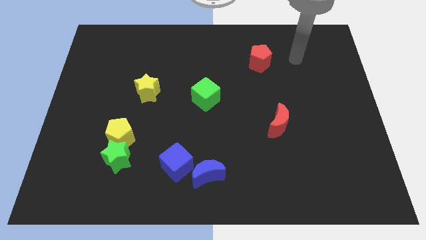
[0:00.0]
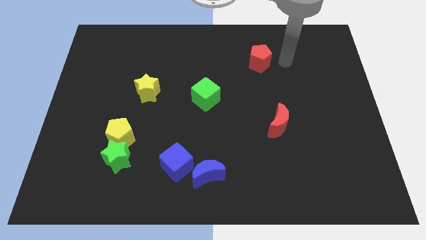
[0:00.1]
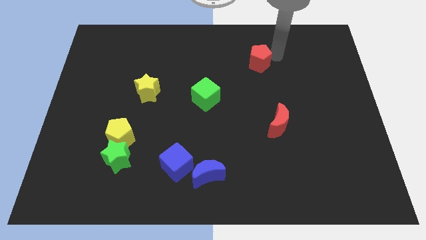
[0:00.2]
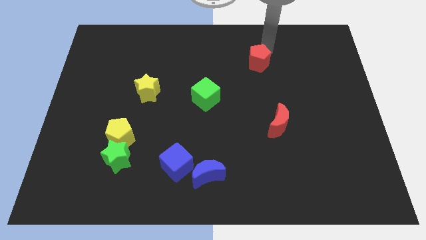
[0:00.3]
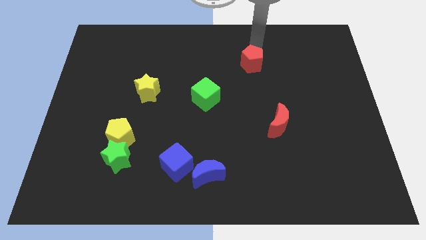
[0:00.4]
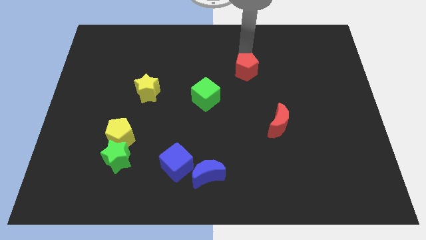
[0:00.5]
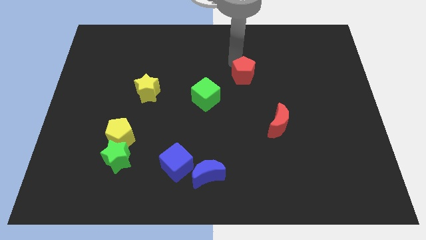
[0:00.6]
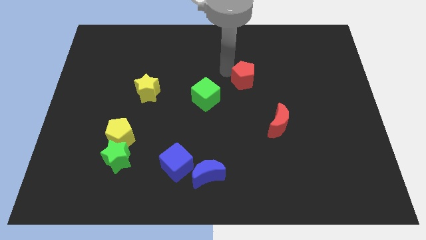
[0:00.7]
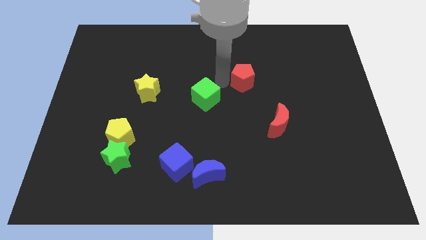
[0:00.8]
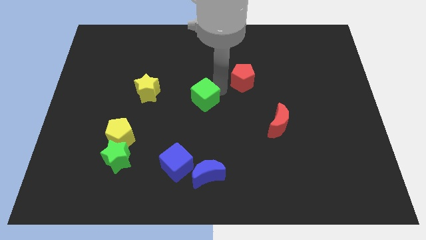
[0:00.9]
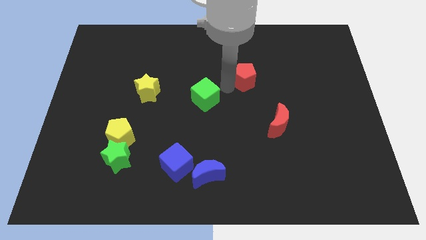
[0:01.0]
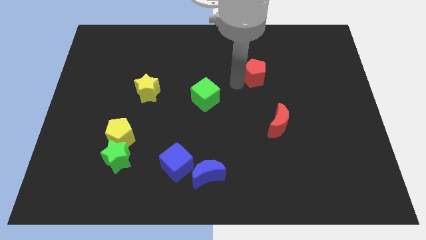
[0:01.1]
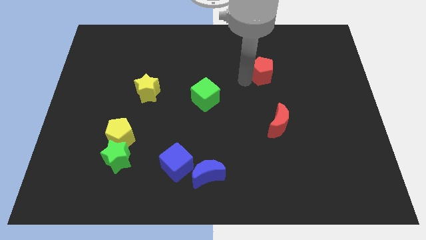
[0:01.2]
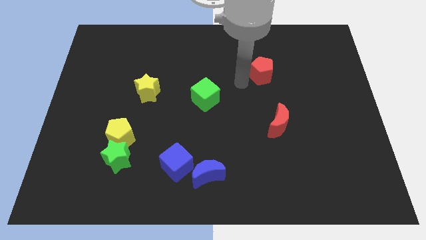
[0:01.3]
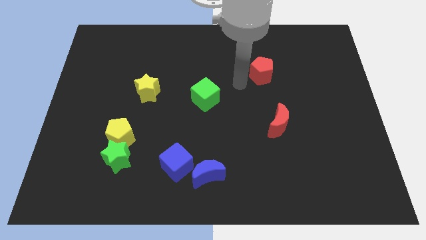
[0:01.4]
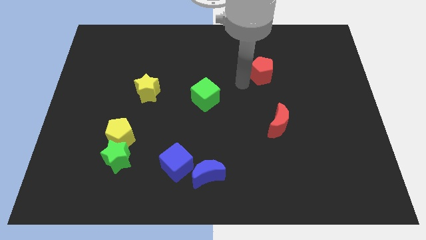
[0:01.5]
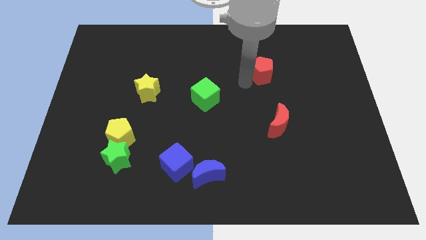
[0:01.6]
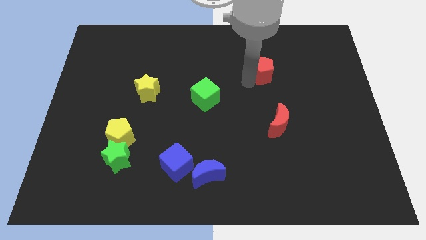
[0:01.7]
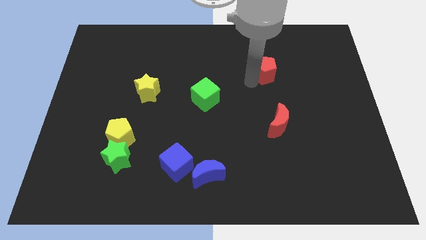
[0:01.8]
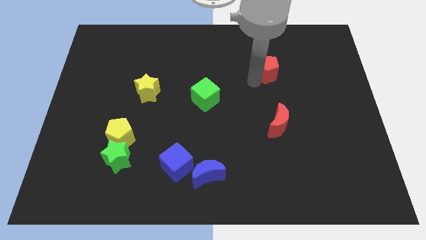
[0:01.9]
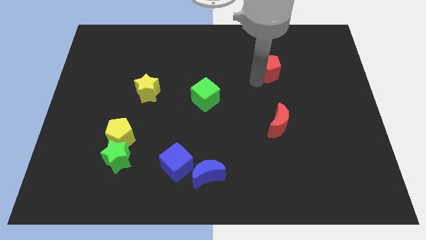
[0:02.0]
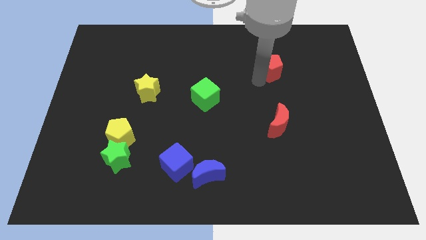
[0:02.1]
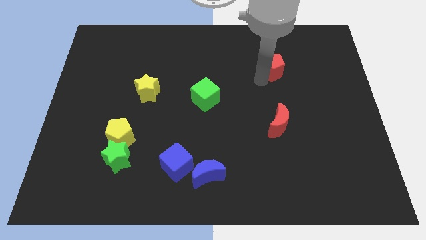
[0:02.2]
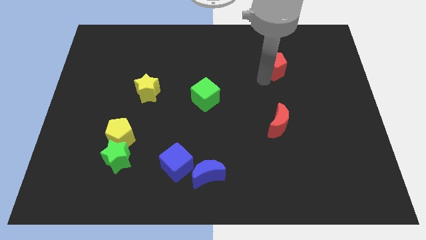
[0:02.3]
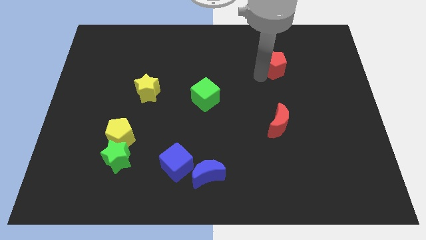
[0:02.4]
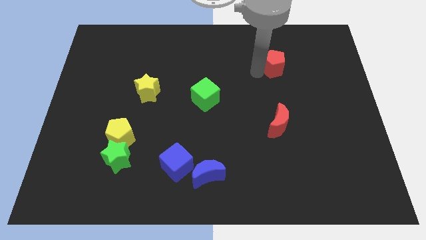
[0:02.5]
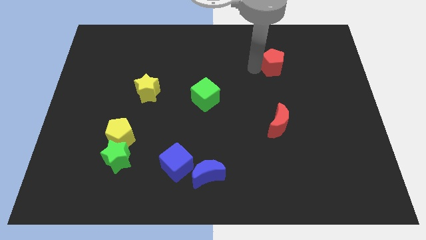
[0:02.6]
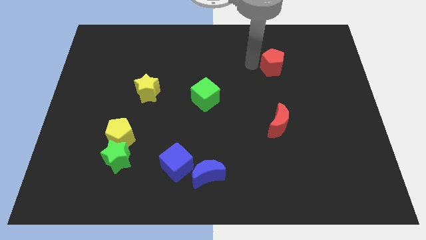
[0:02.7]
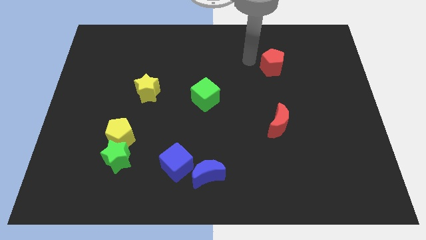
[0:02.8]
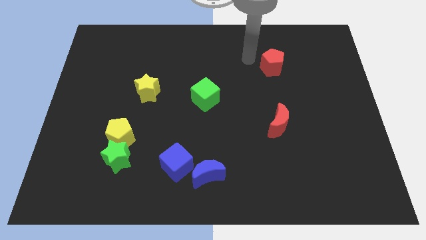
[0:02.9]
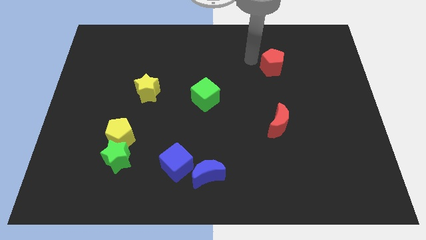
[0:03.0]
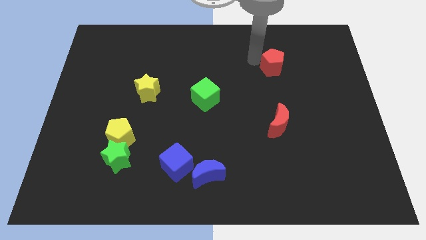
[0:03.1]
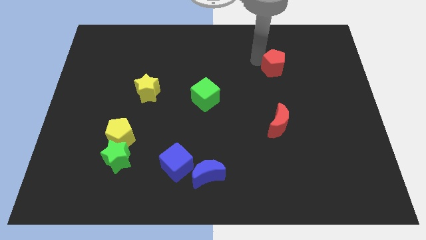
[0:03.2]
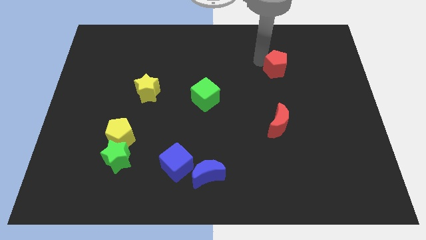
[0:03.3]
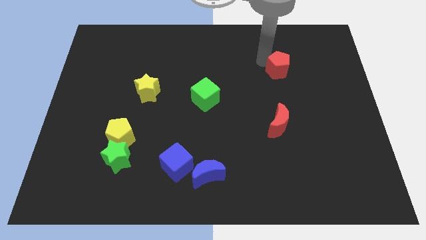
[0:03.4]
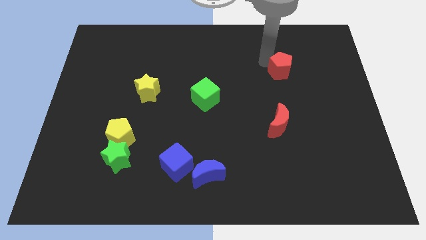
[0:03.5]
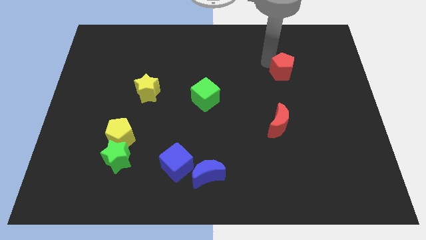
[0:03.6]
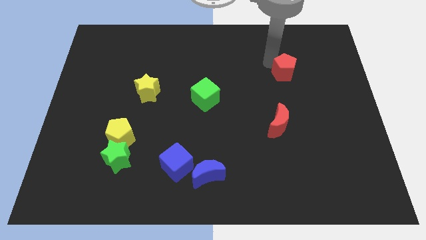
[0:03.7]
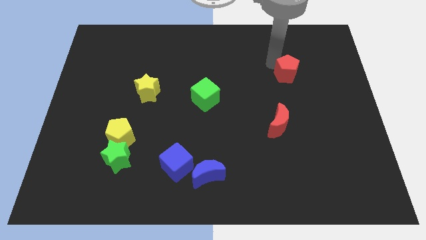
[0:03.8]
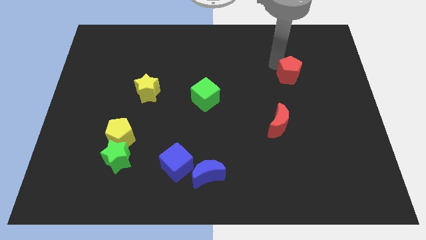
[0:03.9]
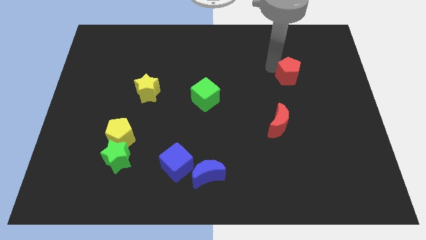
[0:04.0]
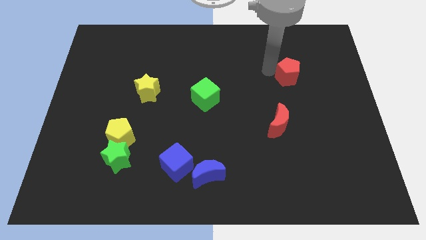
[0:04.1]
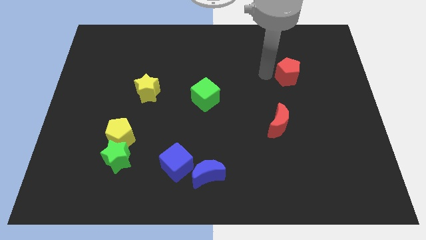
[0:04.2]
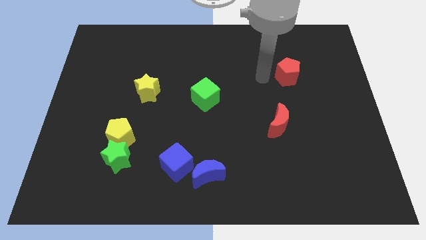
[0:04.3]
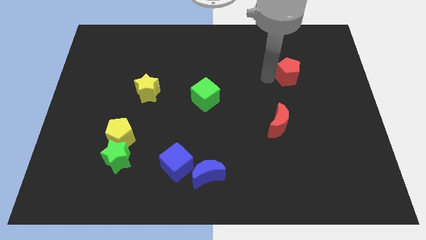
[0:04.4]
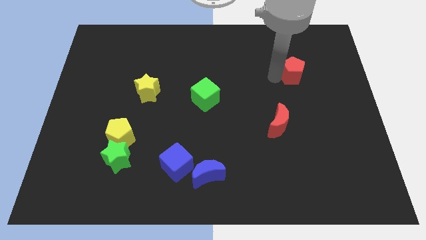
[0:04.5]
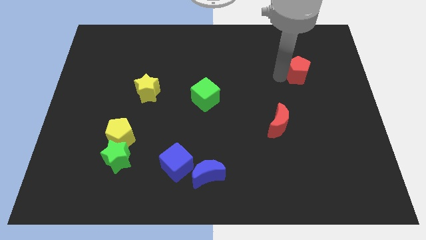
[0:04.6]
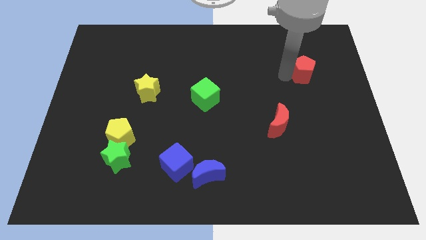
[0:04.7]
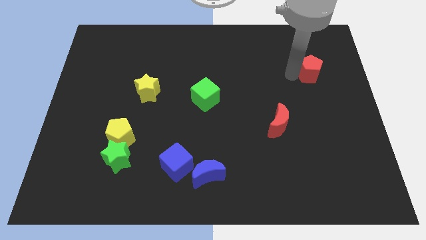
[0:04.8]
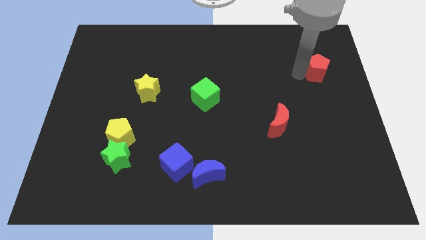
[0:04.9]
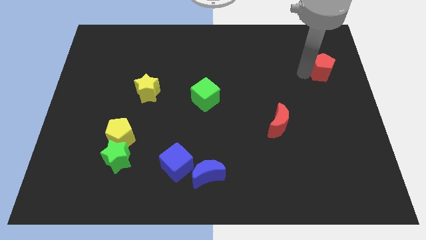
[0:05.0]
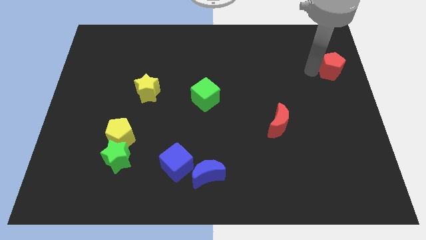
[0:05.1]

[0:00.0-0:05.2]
push the red pentagon to the right side of the board

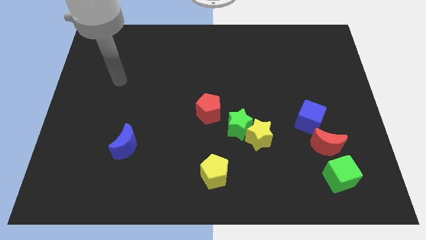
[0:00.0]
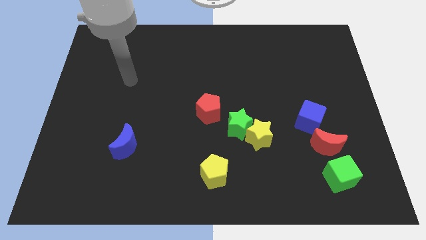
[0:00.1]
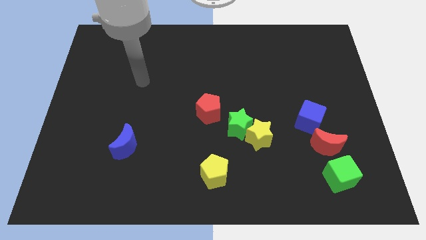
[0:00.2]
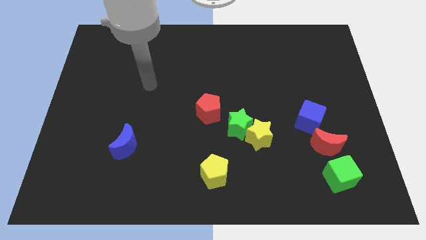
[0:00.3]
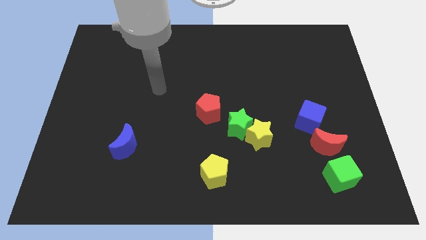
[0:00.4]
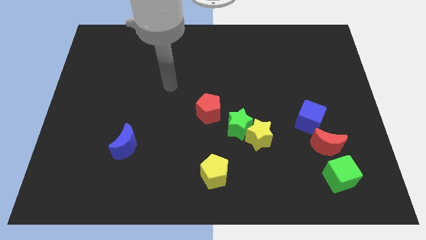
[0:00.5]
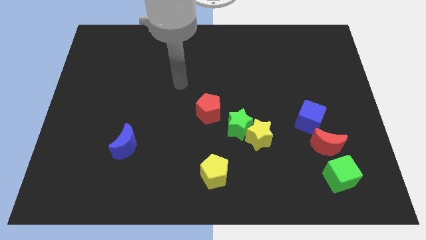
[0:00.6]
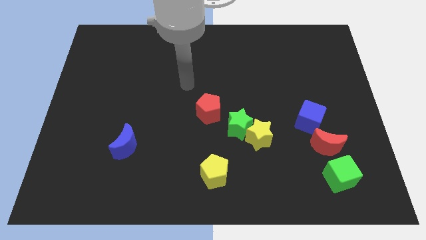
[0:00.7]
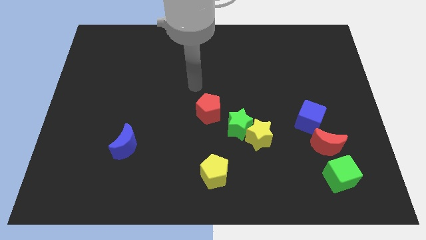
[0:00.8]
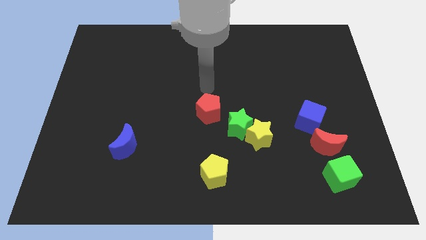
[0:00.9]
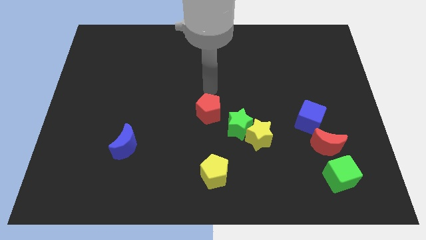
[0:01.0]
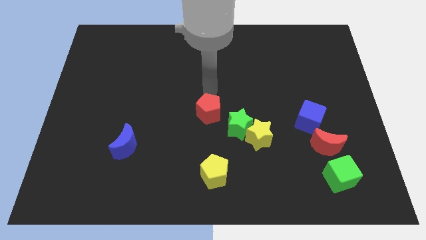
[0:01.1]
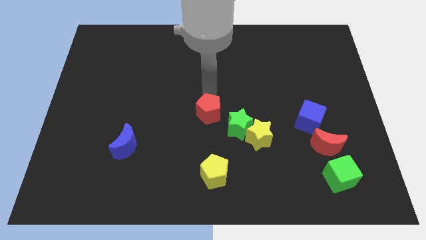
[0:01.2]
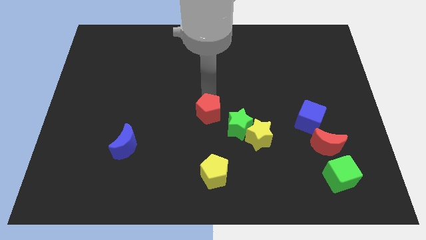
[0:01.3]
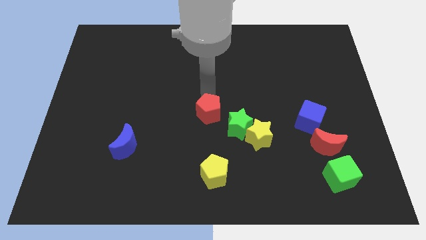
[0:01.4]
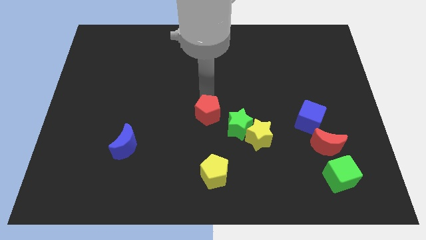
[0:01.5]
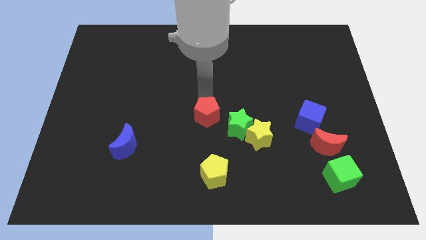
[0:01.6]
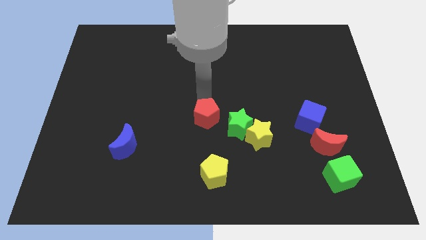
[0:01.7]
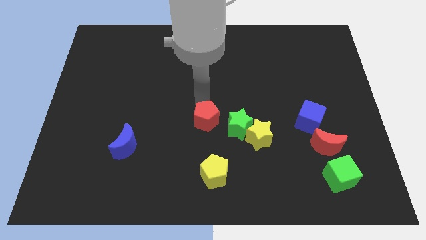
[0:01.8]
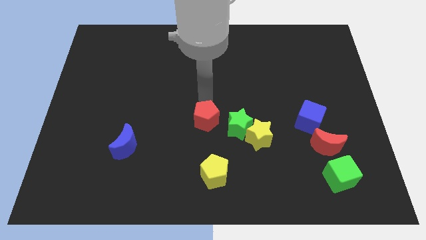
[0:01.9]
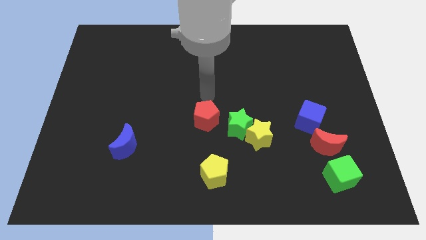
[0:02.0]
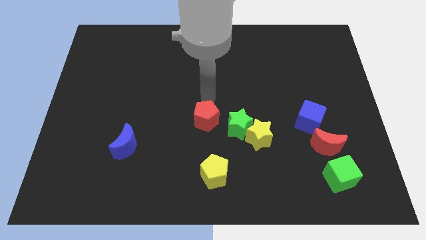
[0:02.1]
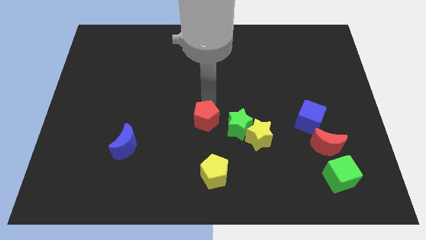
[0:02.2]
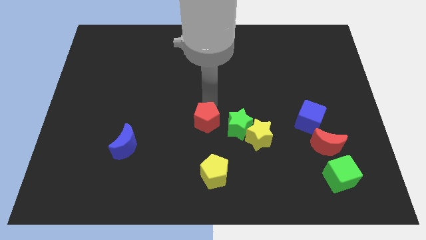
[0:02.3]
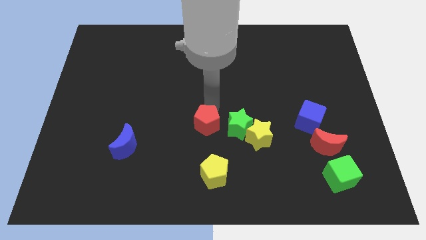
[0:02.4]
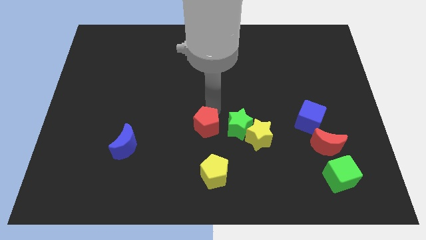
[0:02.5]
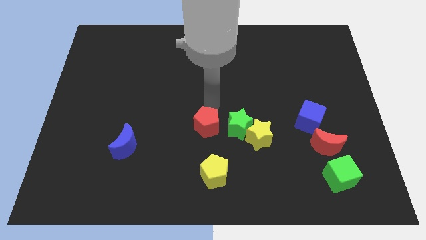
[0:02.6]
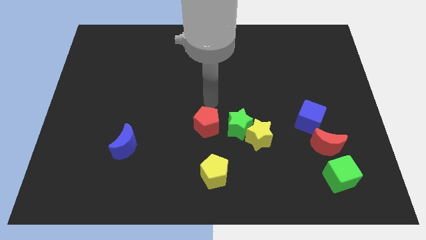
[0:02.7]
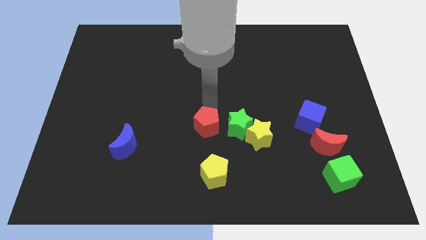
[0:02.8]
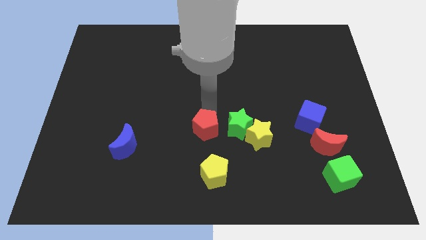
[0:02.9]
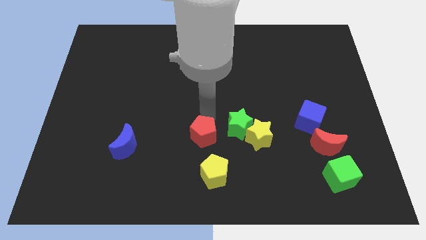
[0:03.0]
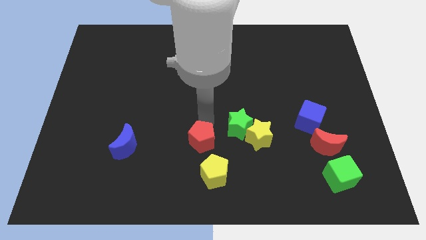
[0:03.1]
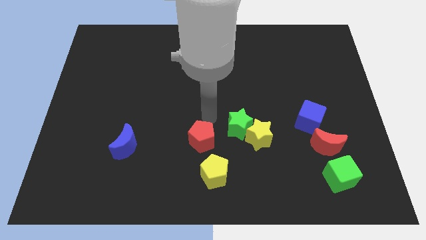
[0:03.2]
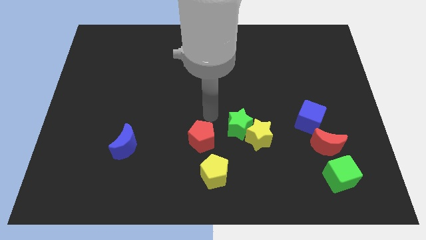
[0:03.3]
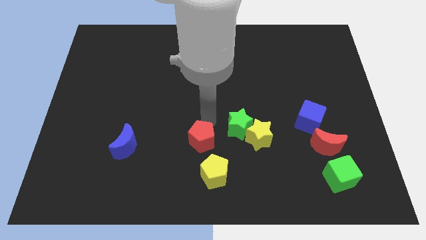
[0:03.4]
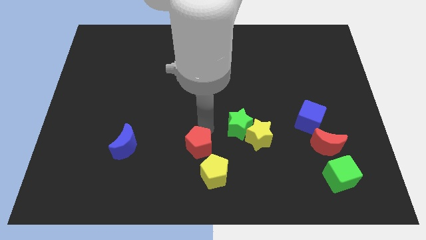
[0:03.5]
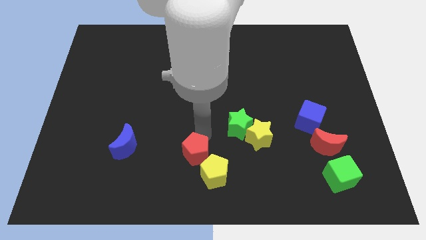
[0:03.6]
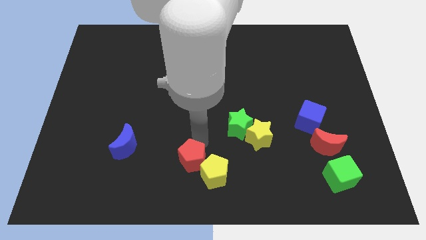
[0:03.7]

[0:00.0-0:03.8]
move the red pentagon to the bottom side
